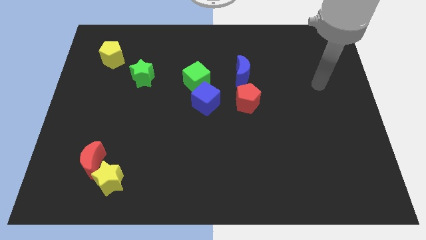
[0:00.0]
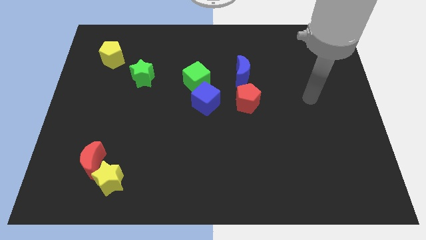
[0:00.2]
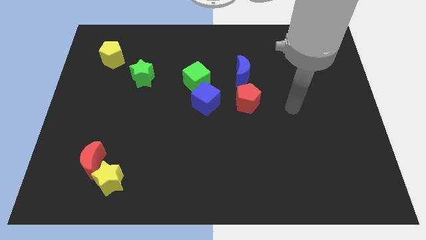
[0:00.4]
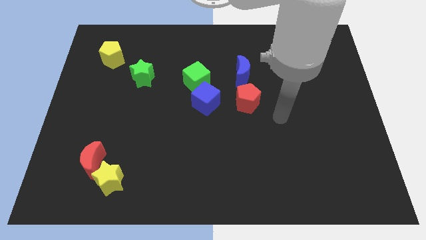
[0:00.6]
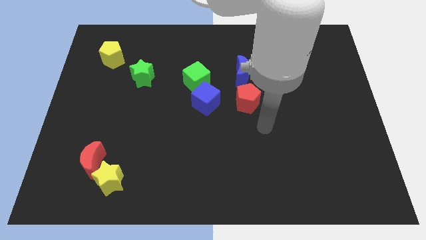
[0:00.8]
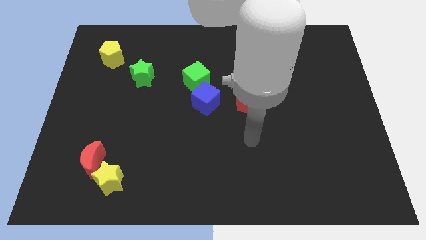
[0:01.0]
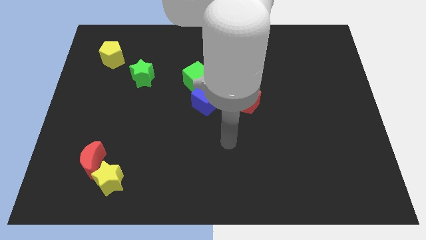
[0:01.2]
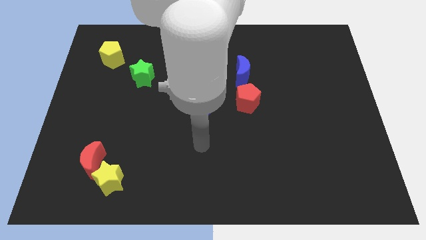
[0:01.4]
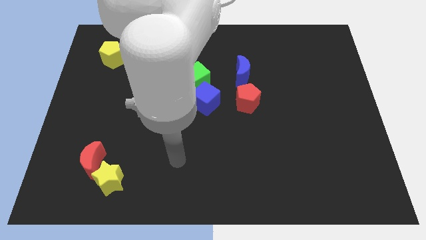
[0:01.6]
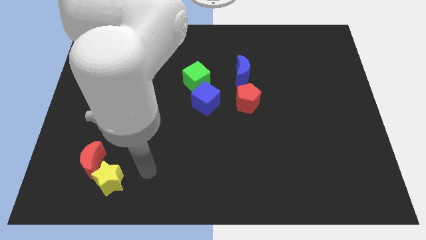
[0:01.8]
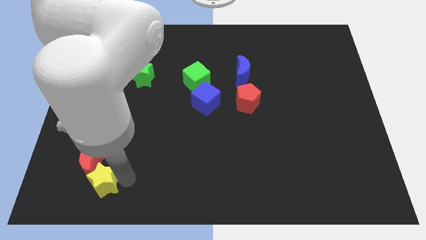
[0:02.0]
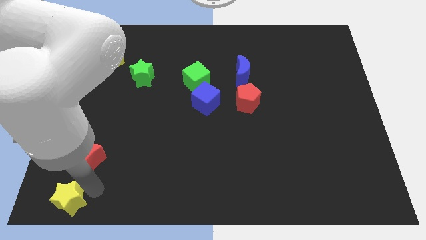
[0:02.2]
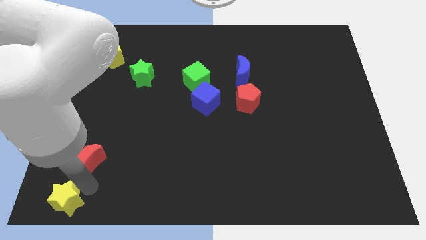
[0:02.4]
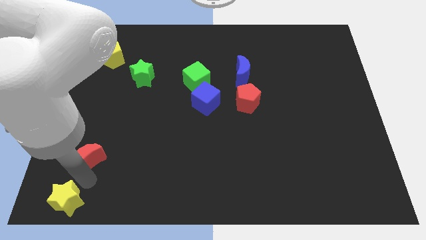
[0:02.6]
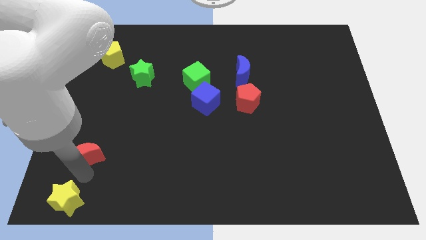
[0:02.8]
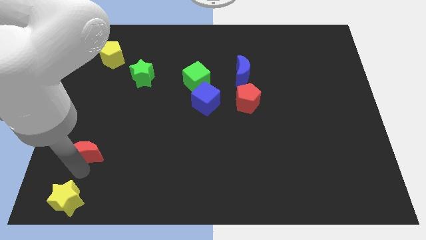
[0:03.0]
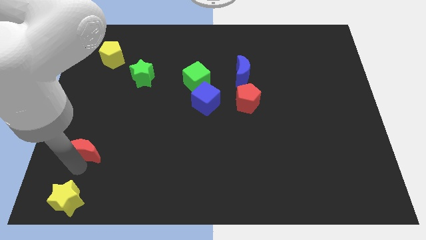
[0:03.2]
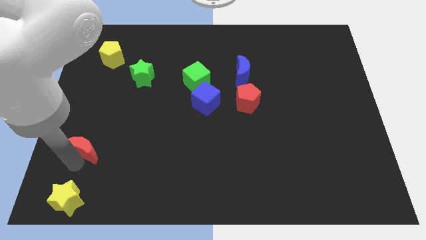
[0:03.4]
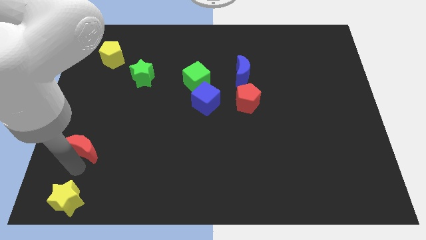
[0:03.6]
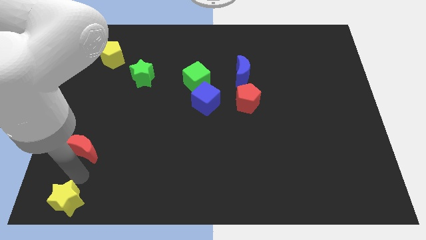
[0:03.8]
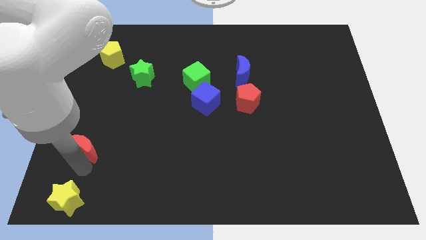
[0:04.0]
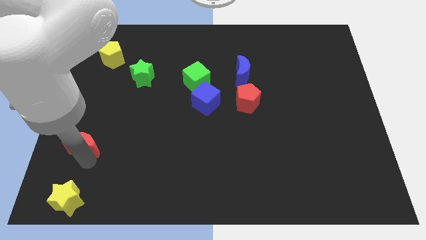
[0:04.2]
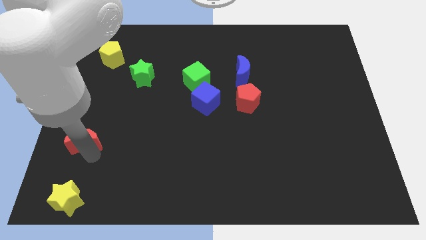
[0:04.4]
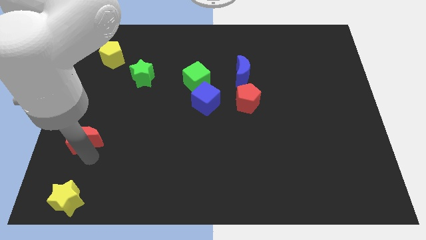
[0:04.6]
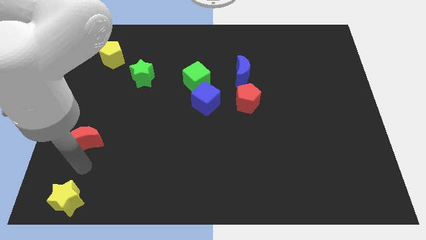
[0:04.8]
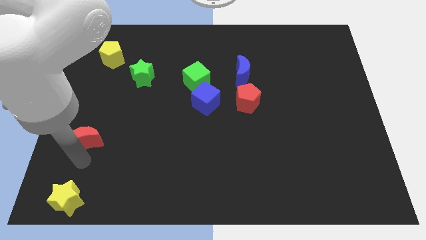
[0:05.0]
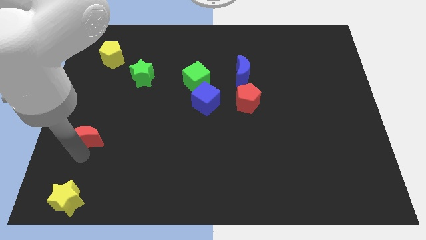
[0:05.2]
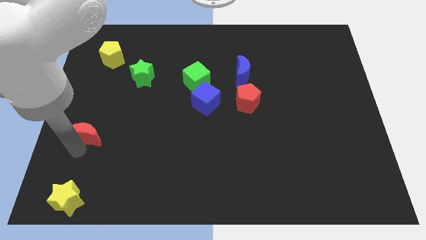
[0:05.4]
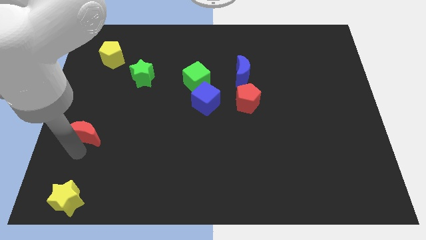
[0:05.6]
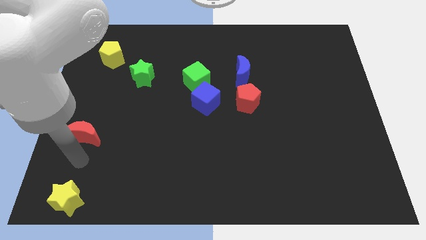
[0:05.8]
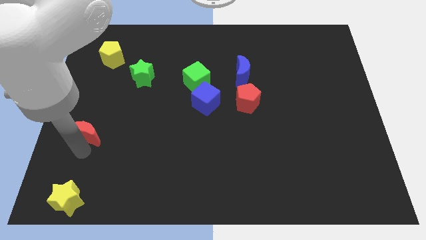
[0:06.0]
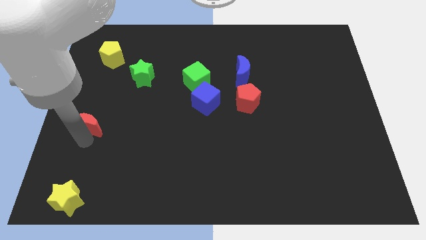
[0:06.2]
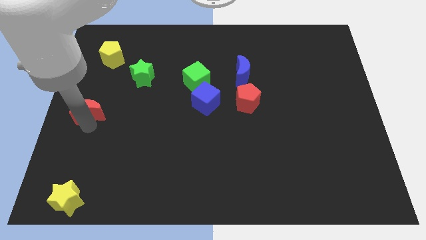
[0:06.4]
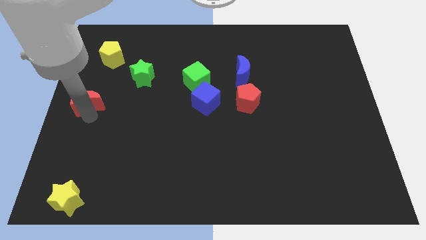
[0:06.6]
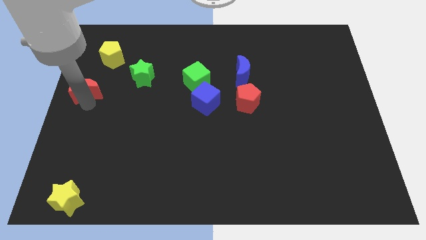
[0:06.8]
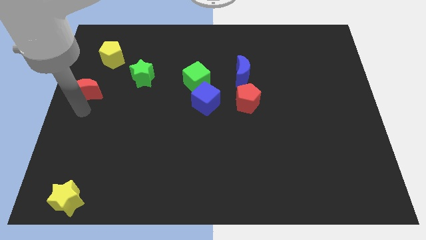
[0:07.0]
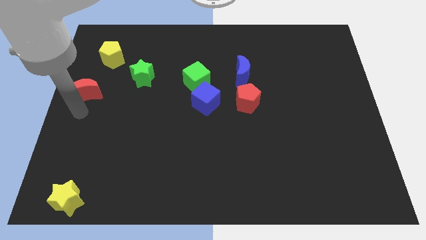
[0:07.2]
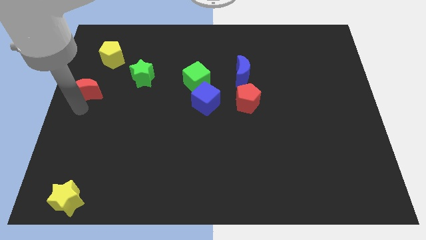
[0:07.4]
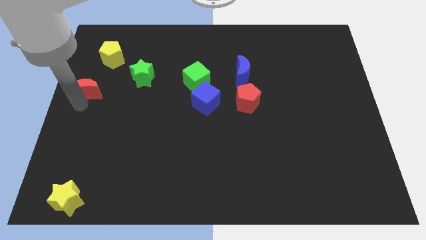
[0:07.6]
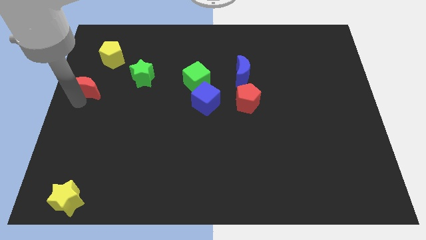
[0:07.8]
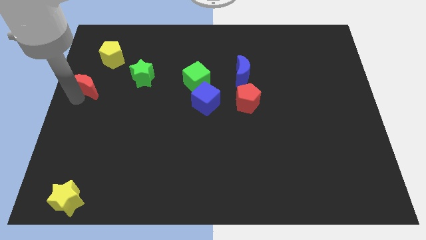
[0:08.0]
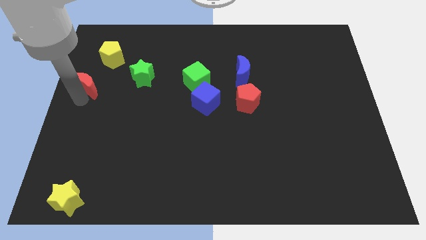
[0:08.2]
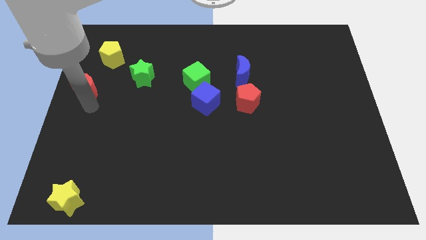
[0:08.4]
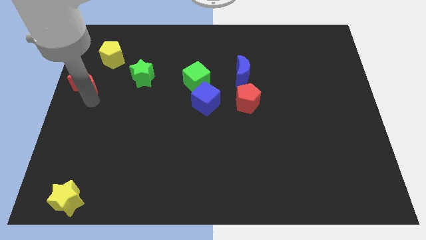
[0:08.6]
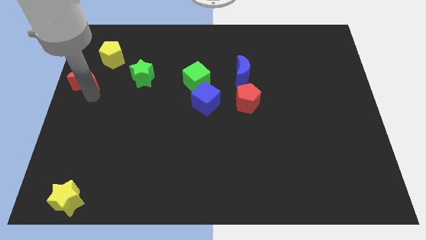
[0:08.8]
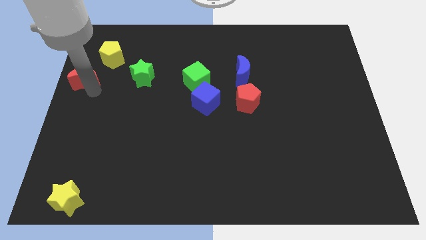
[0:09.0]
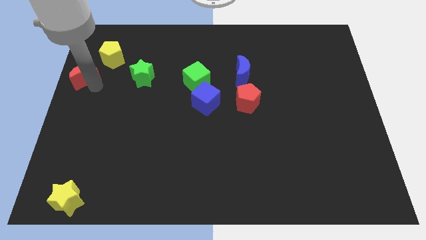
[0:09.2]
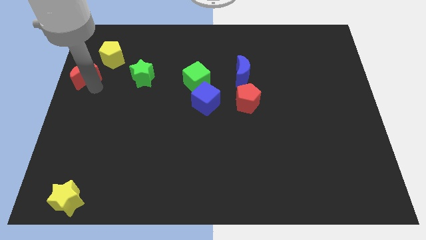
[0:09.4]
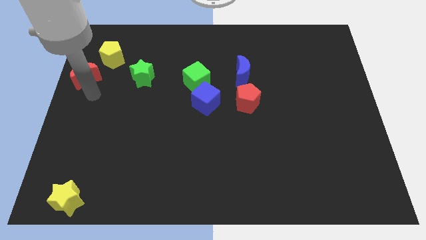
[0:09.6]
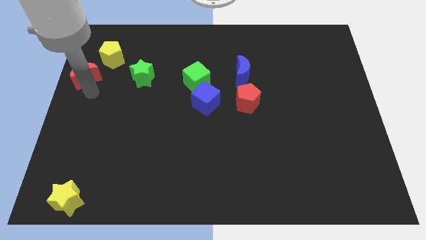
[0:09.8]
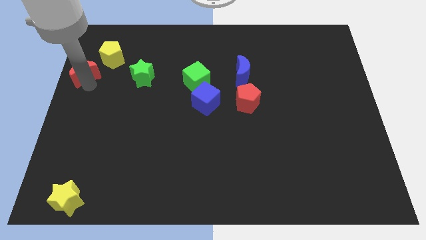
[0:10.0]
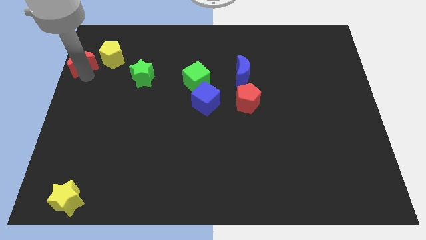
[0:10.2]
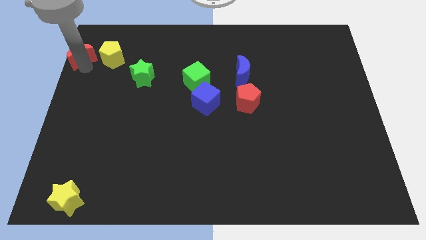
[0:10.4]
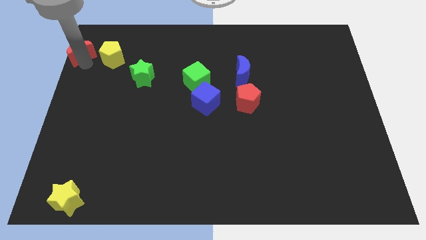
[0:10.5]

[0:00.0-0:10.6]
push the red moon to the upper left corner
